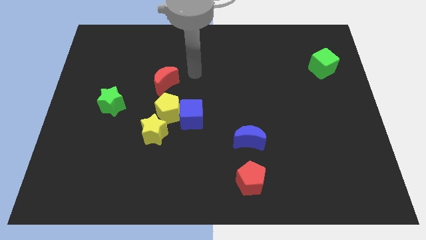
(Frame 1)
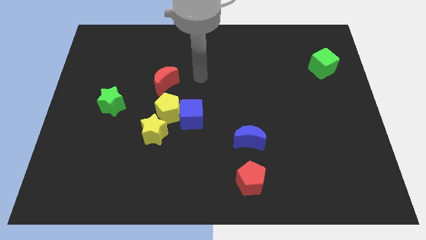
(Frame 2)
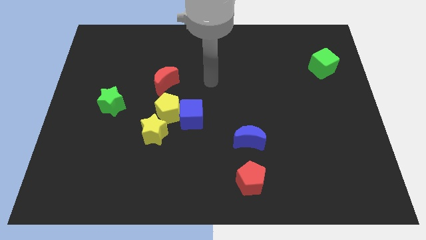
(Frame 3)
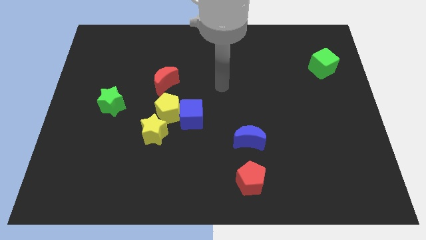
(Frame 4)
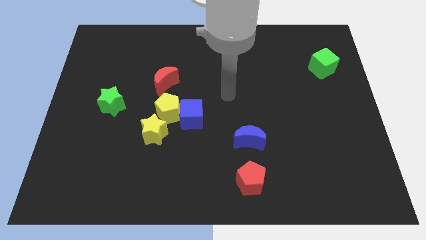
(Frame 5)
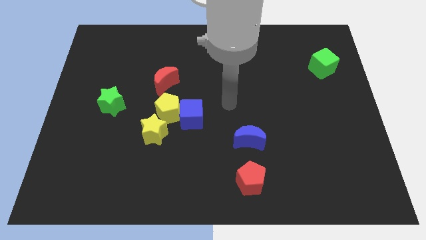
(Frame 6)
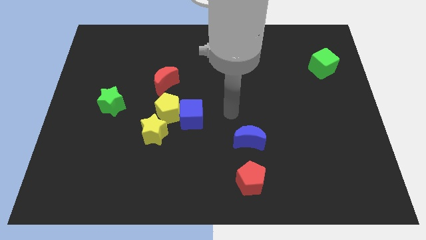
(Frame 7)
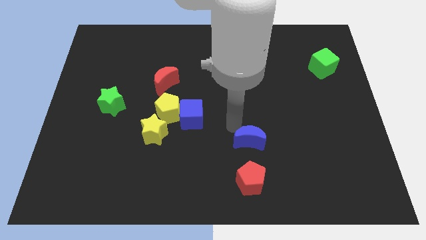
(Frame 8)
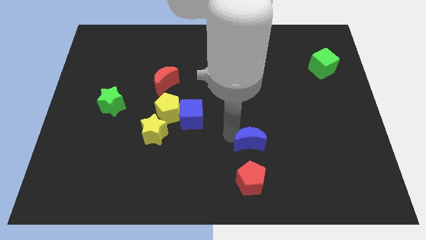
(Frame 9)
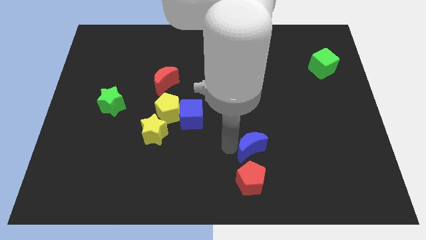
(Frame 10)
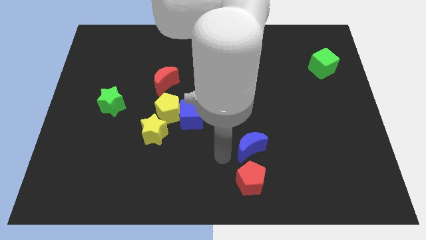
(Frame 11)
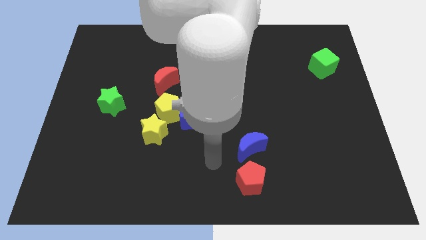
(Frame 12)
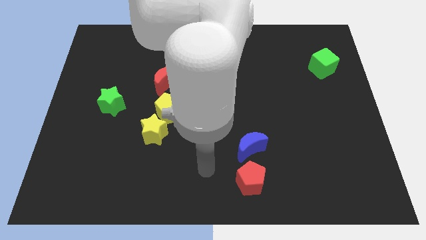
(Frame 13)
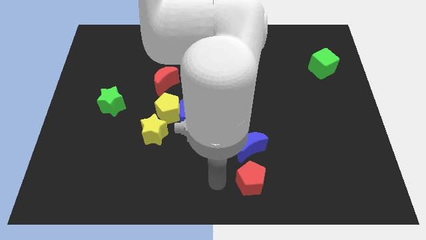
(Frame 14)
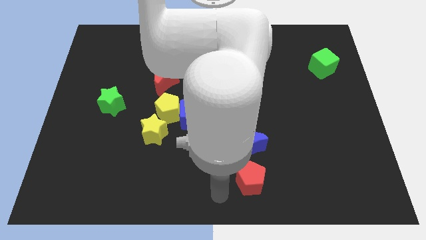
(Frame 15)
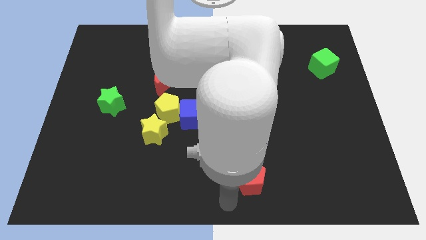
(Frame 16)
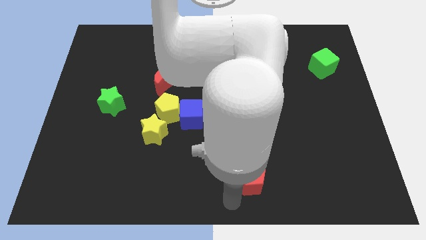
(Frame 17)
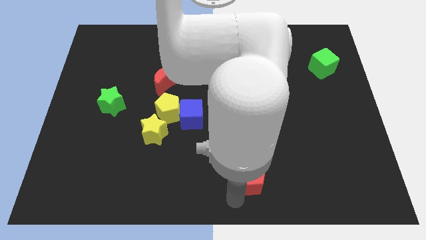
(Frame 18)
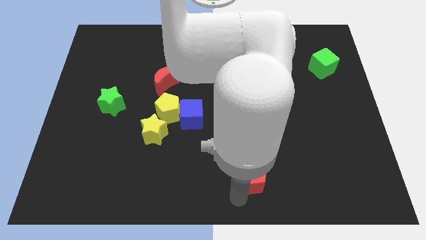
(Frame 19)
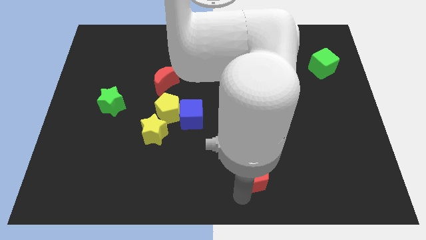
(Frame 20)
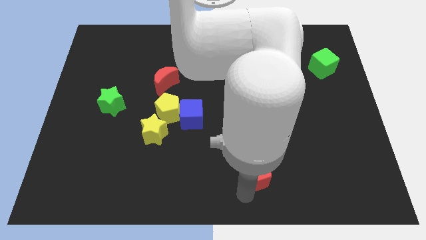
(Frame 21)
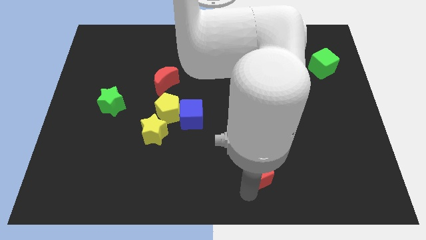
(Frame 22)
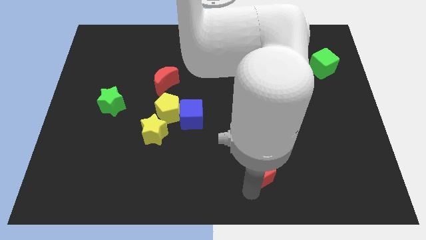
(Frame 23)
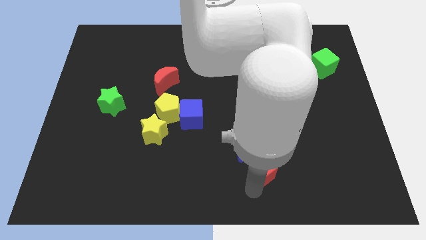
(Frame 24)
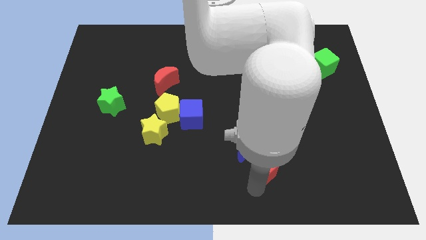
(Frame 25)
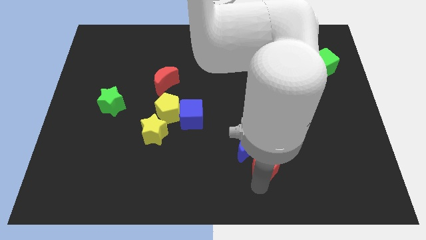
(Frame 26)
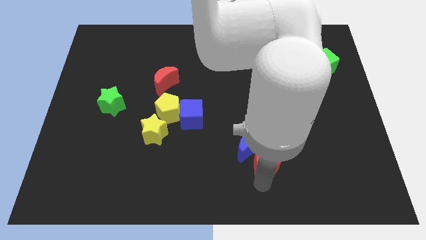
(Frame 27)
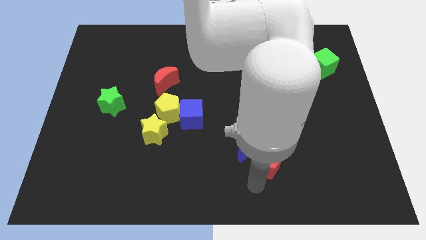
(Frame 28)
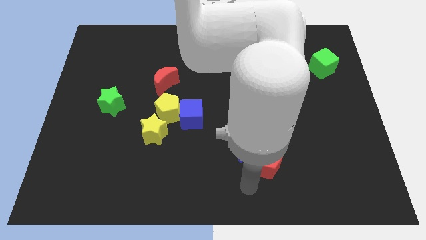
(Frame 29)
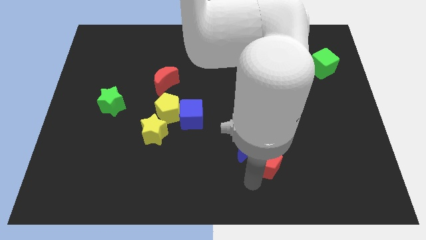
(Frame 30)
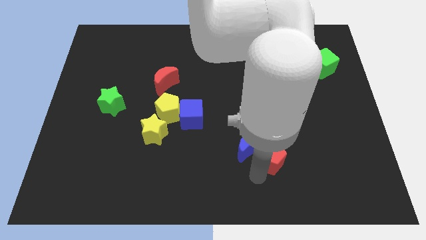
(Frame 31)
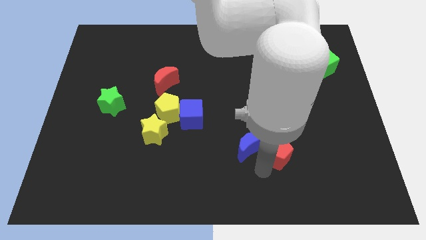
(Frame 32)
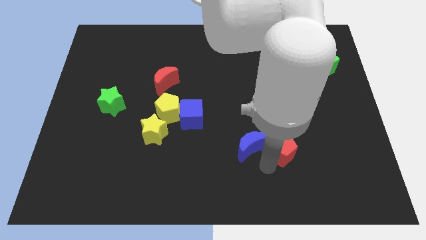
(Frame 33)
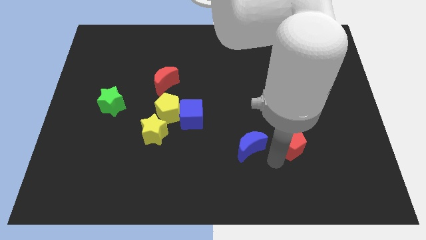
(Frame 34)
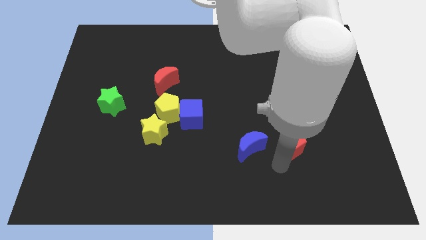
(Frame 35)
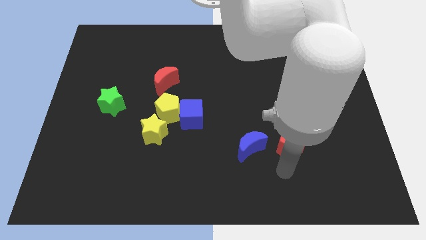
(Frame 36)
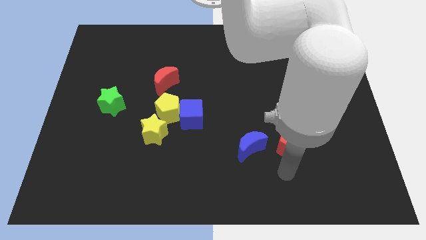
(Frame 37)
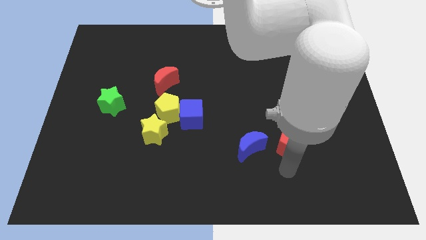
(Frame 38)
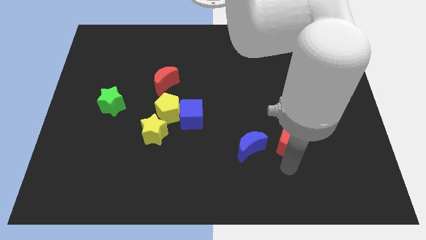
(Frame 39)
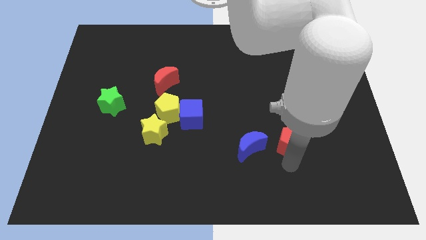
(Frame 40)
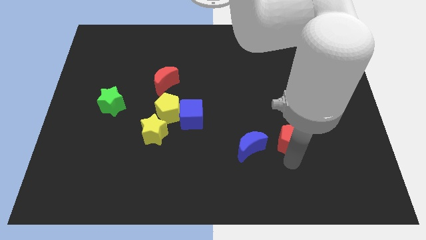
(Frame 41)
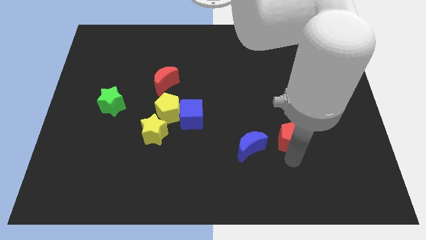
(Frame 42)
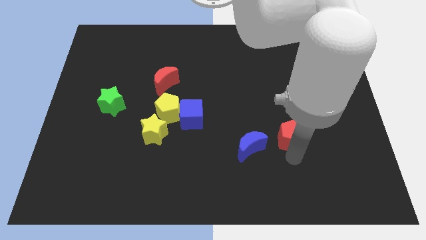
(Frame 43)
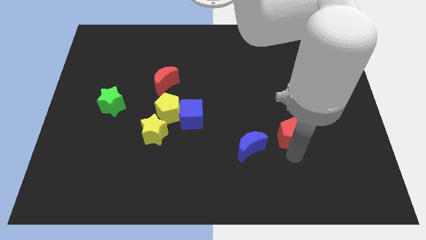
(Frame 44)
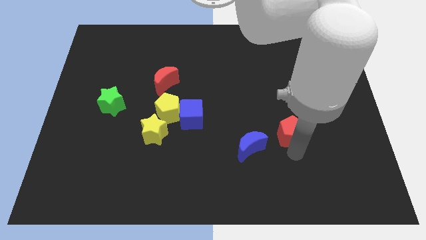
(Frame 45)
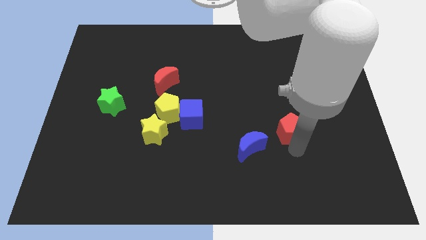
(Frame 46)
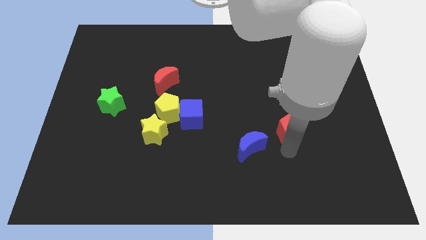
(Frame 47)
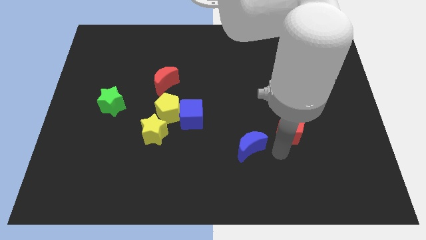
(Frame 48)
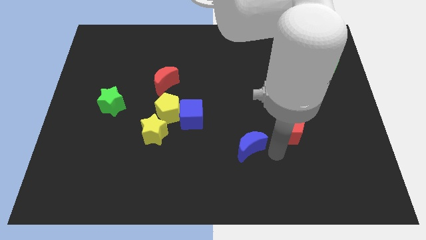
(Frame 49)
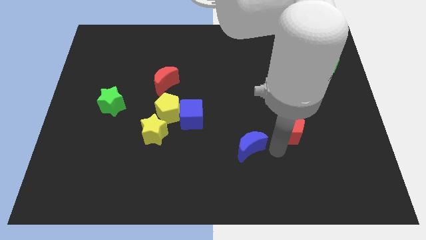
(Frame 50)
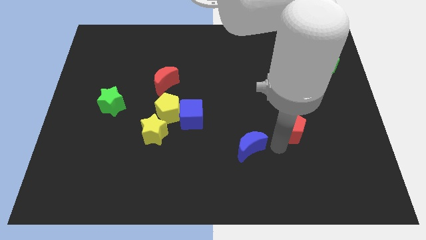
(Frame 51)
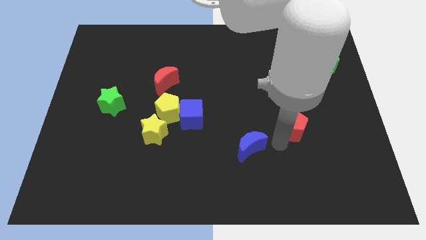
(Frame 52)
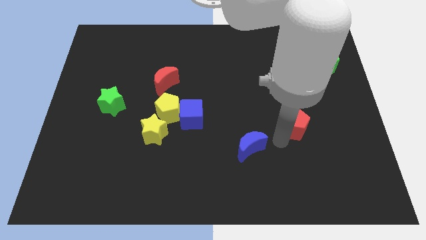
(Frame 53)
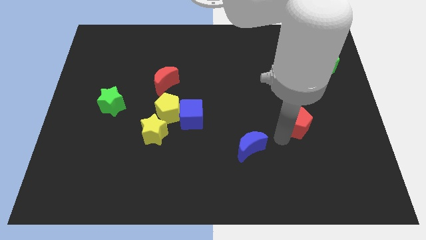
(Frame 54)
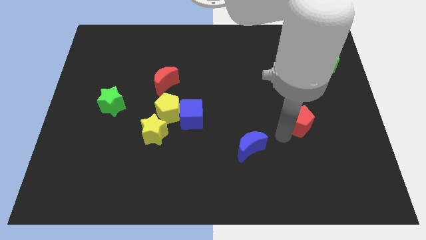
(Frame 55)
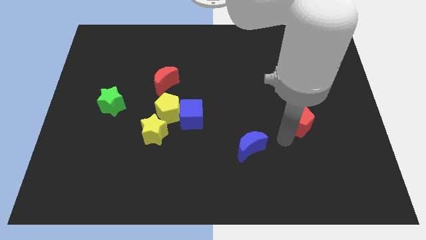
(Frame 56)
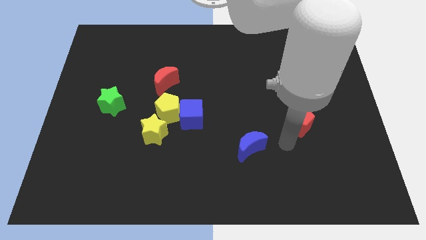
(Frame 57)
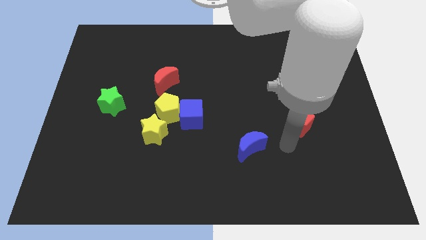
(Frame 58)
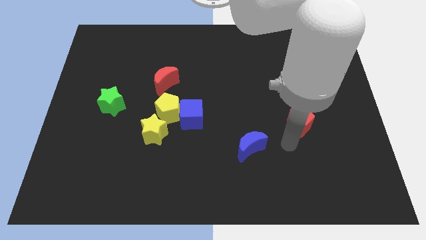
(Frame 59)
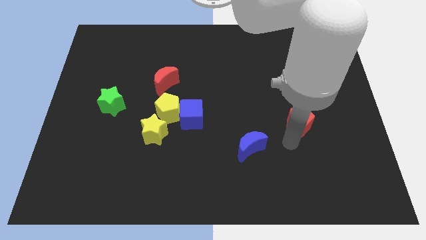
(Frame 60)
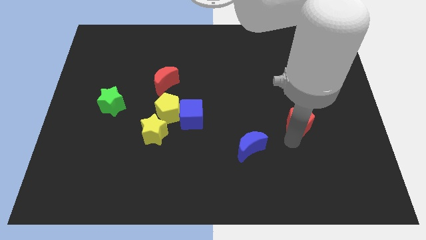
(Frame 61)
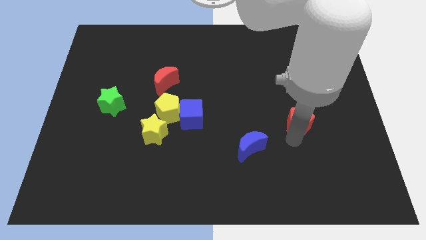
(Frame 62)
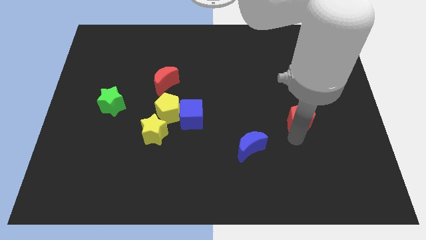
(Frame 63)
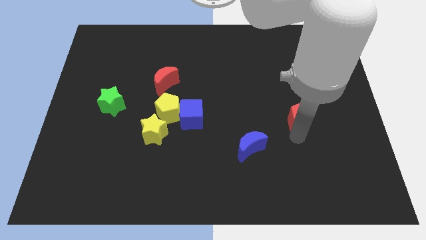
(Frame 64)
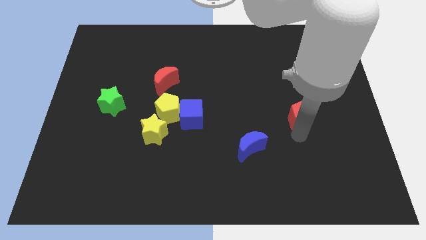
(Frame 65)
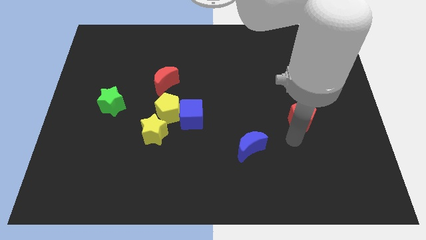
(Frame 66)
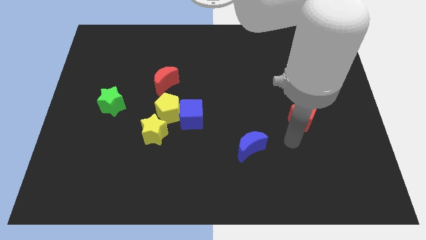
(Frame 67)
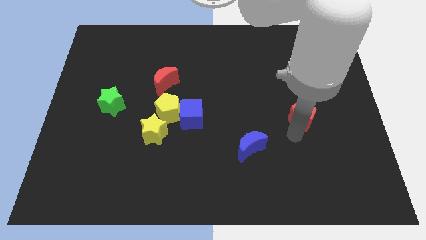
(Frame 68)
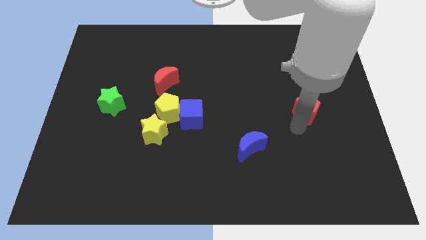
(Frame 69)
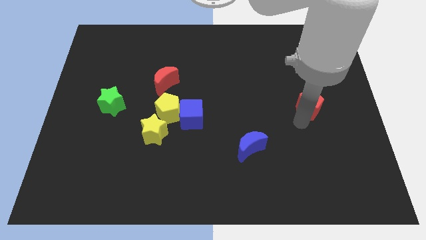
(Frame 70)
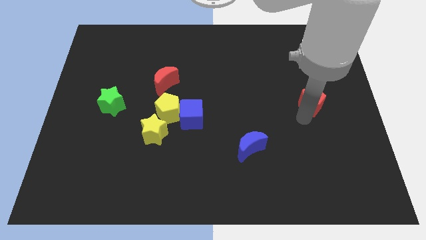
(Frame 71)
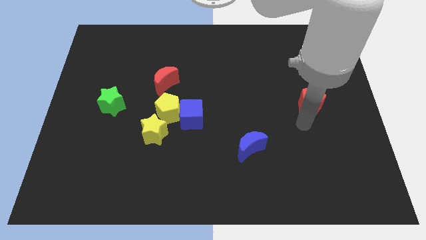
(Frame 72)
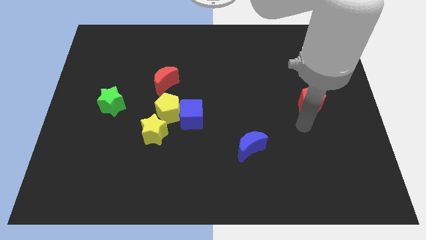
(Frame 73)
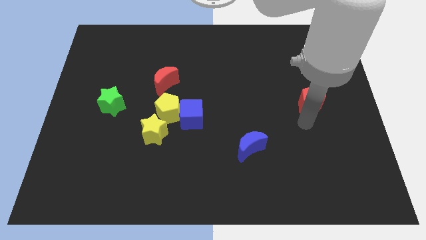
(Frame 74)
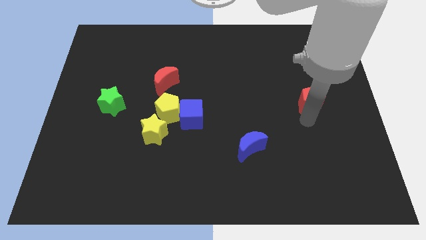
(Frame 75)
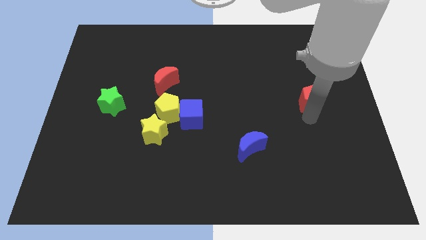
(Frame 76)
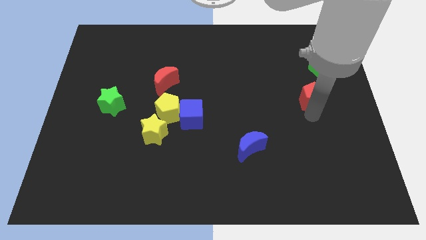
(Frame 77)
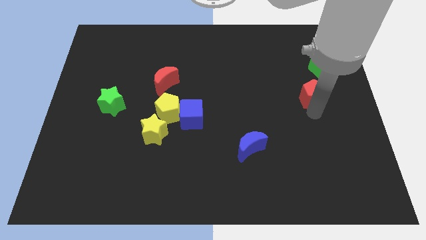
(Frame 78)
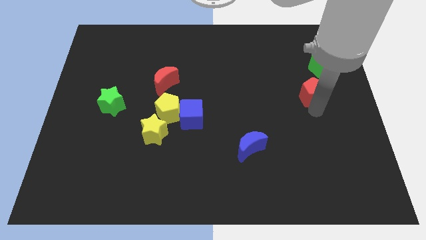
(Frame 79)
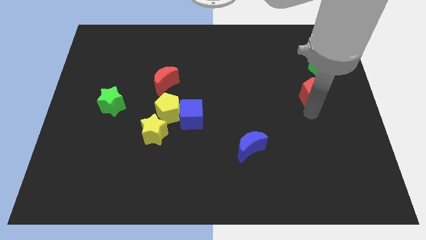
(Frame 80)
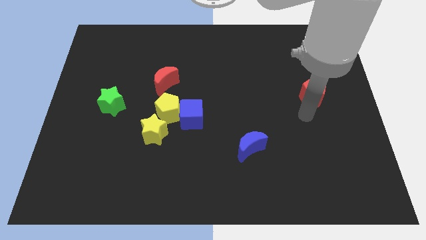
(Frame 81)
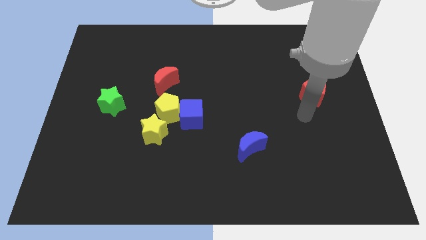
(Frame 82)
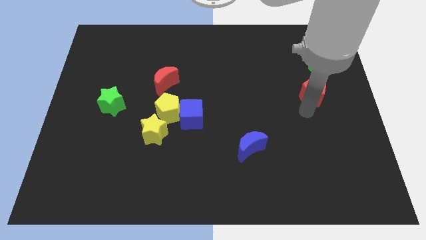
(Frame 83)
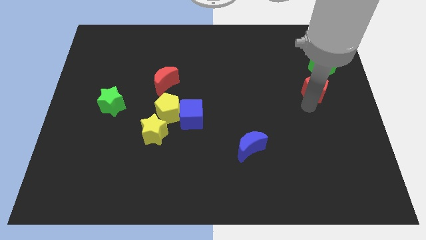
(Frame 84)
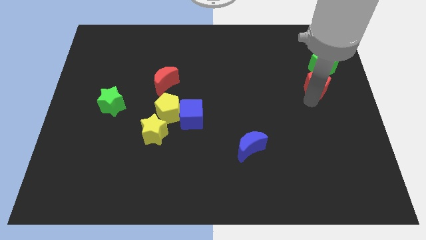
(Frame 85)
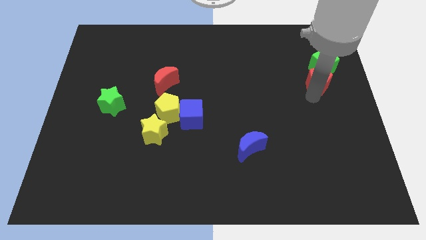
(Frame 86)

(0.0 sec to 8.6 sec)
move the red pentagon to the green cube
